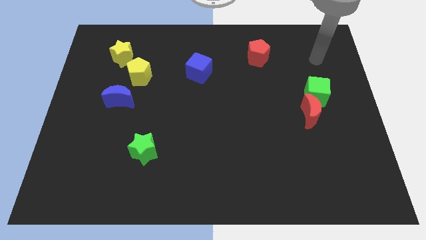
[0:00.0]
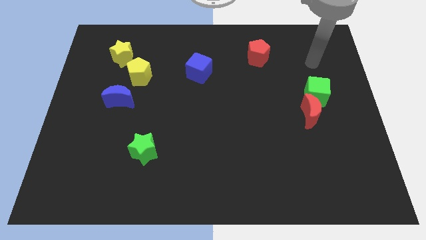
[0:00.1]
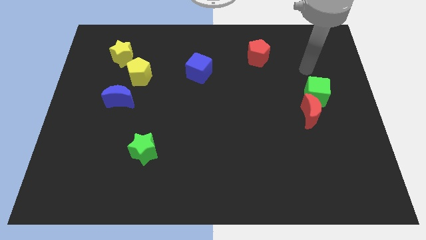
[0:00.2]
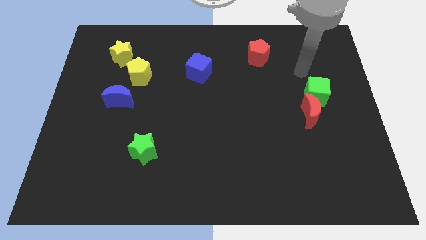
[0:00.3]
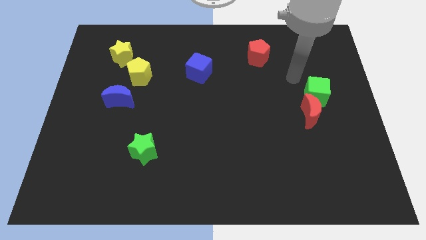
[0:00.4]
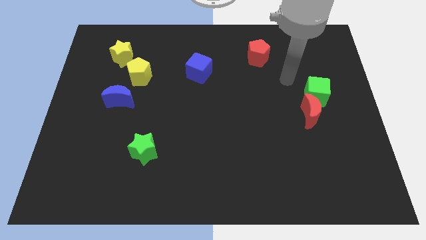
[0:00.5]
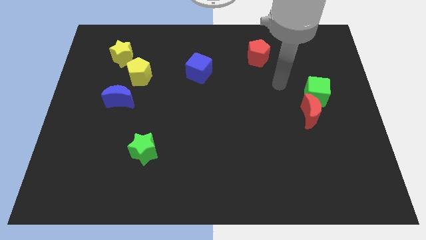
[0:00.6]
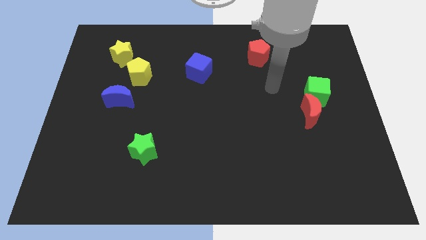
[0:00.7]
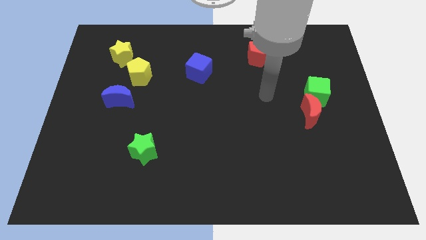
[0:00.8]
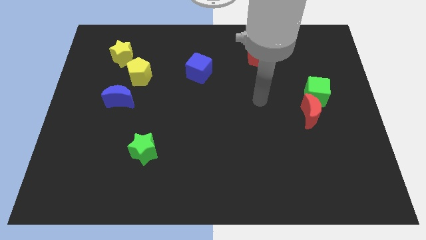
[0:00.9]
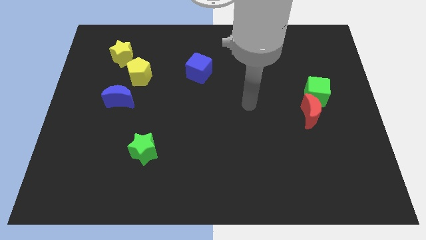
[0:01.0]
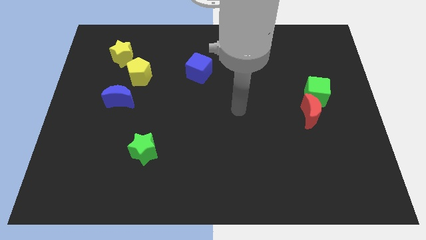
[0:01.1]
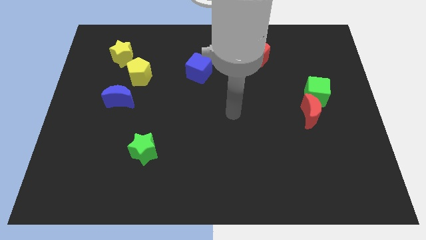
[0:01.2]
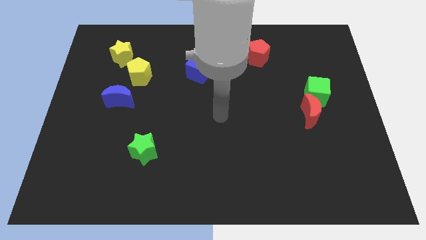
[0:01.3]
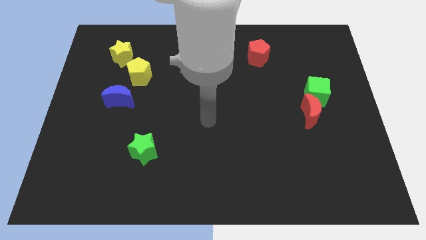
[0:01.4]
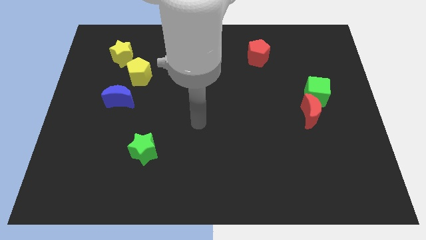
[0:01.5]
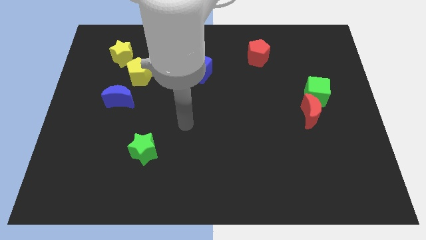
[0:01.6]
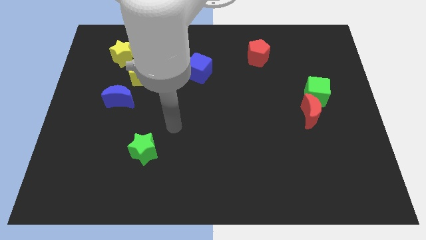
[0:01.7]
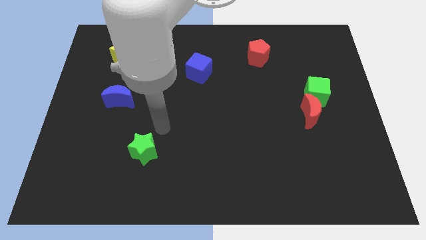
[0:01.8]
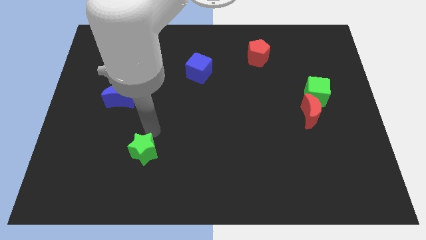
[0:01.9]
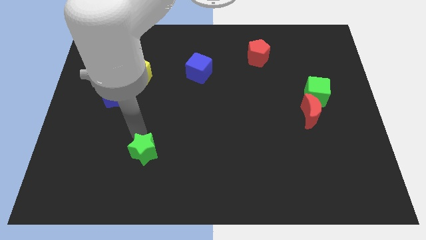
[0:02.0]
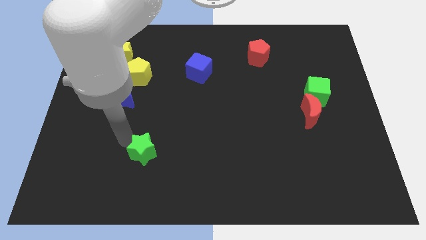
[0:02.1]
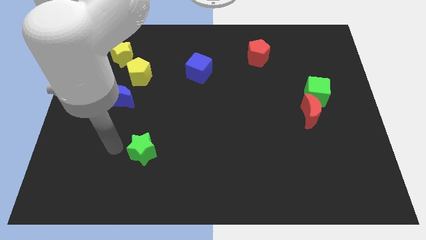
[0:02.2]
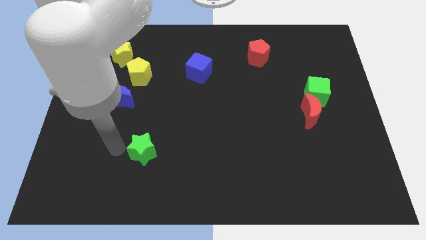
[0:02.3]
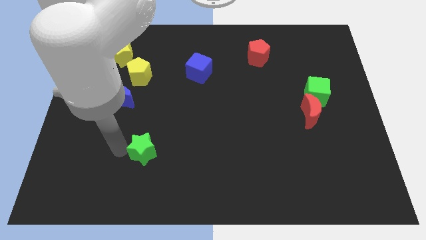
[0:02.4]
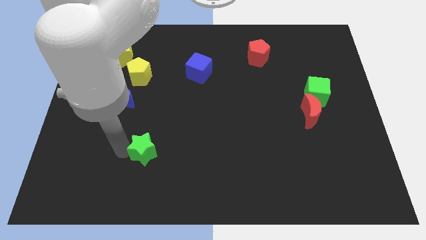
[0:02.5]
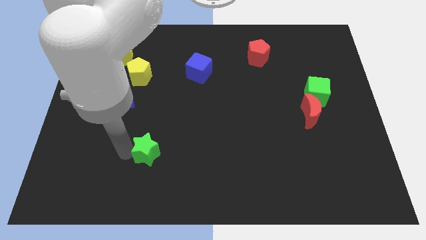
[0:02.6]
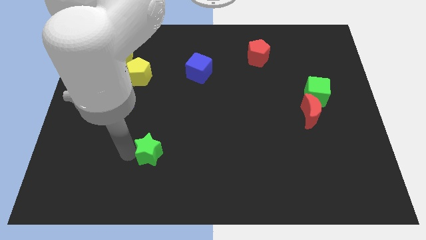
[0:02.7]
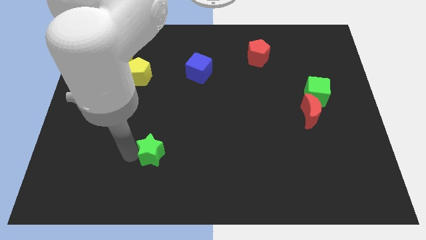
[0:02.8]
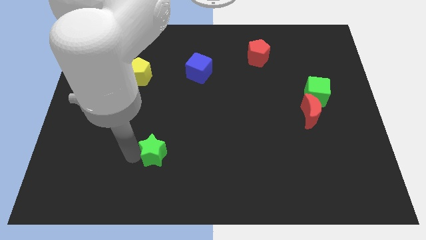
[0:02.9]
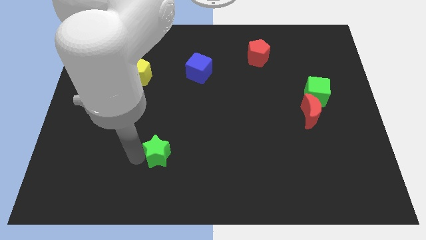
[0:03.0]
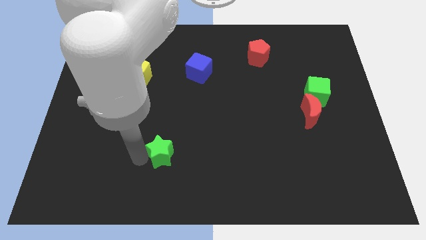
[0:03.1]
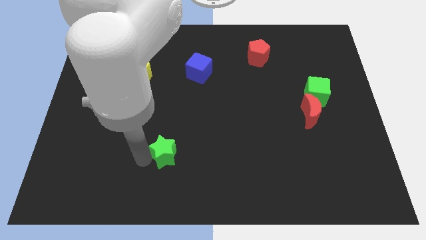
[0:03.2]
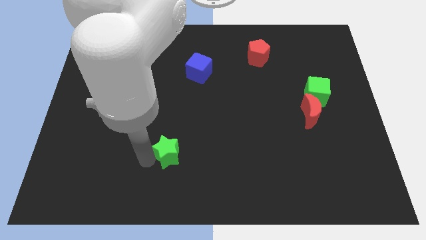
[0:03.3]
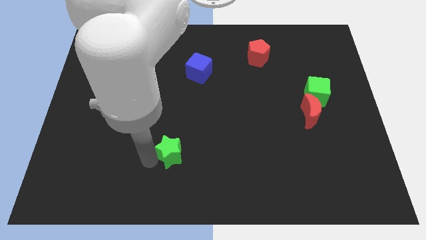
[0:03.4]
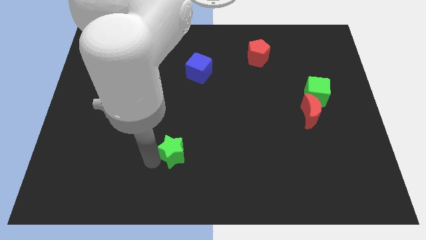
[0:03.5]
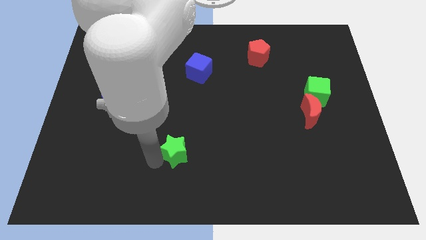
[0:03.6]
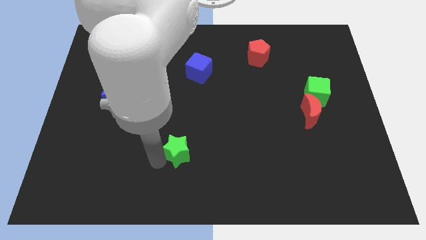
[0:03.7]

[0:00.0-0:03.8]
move the green star right a little

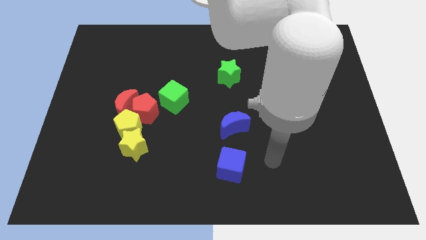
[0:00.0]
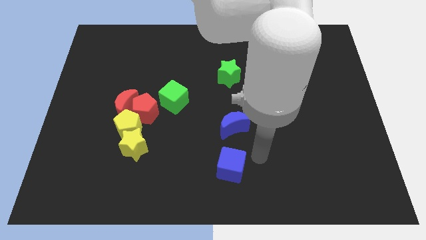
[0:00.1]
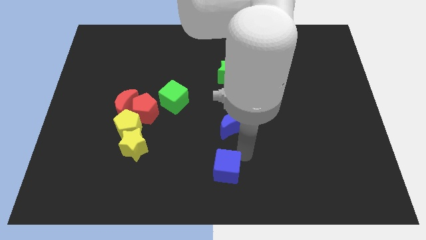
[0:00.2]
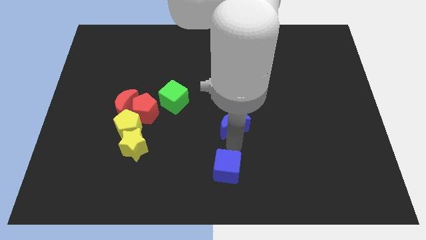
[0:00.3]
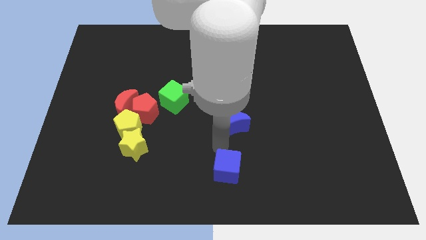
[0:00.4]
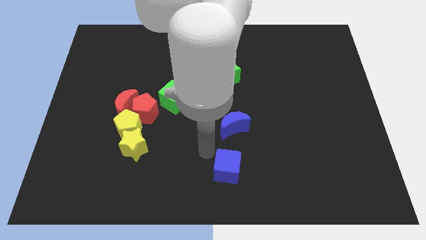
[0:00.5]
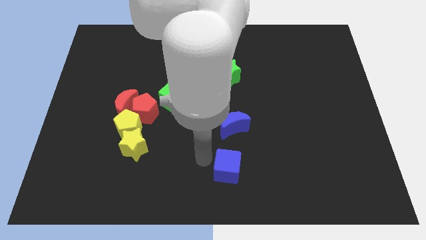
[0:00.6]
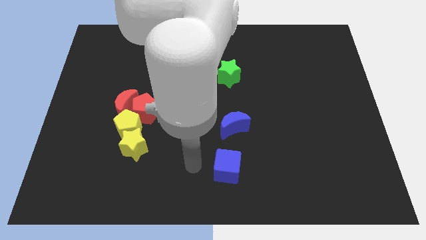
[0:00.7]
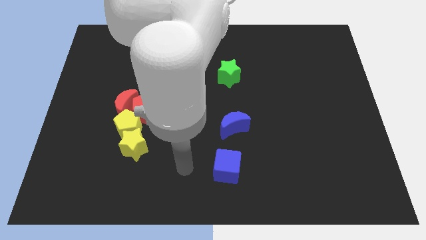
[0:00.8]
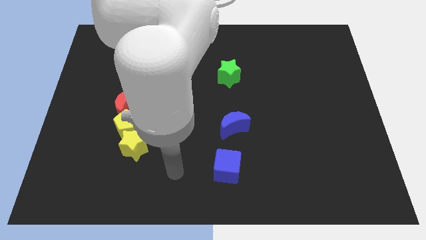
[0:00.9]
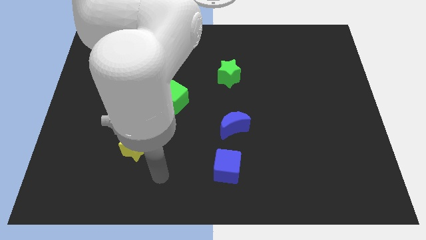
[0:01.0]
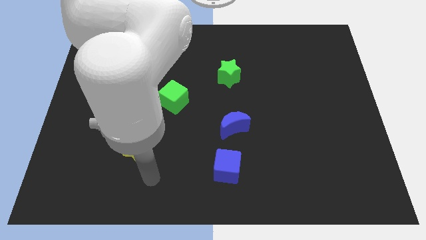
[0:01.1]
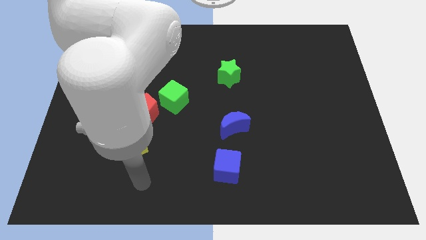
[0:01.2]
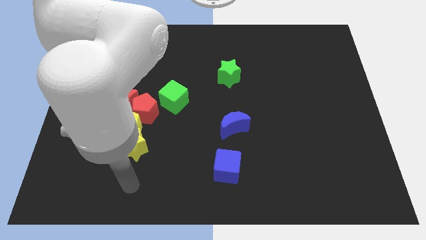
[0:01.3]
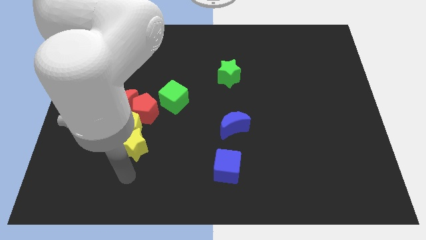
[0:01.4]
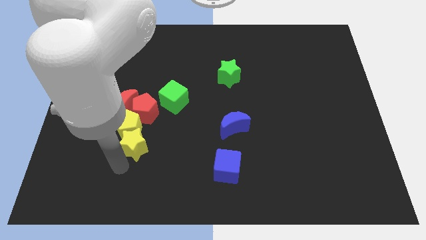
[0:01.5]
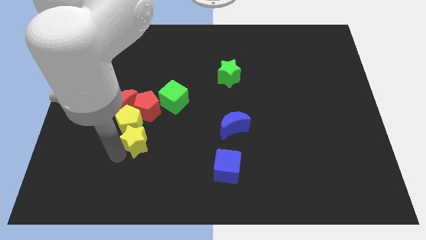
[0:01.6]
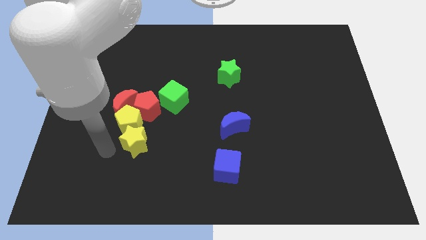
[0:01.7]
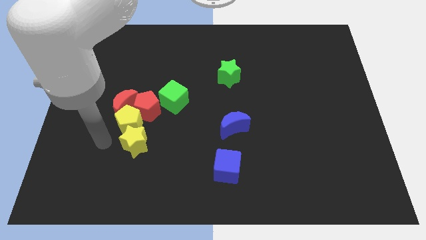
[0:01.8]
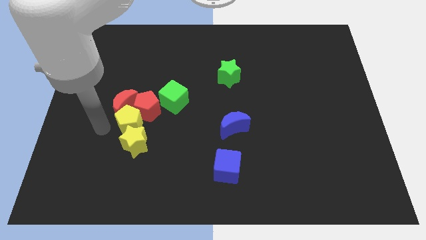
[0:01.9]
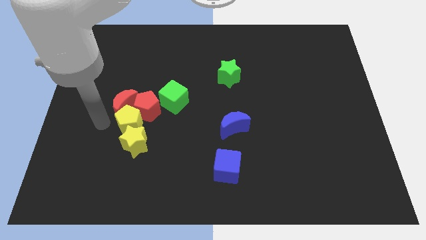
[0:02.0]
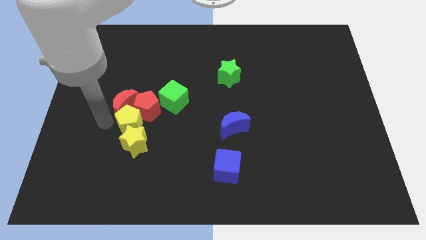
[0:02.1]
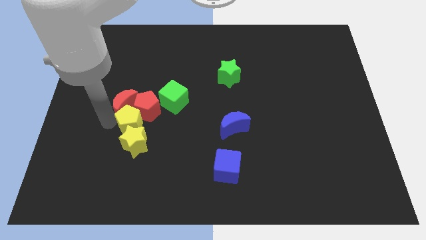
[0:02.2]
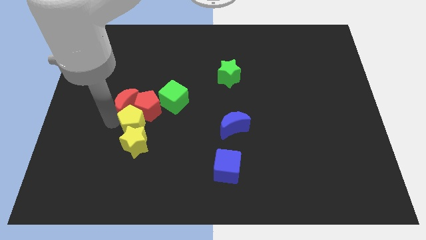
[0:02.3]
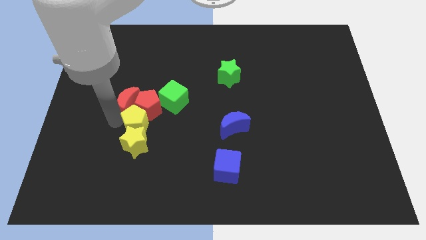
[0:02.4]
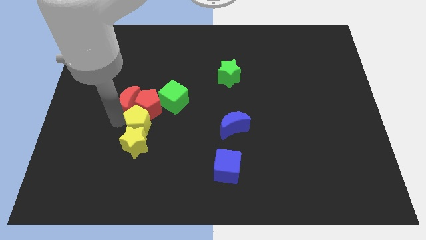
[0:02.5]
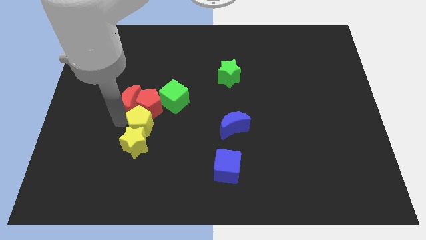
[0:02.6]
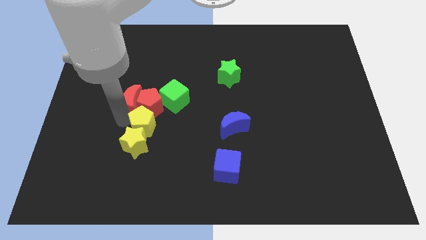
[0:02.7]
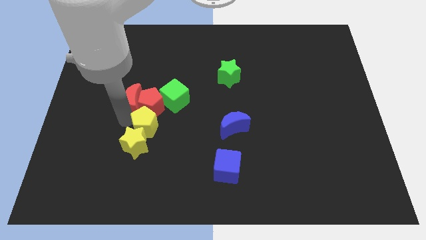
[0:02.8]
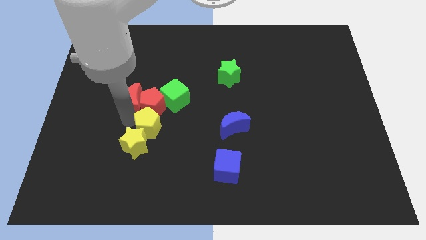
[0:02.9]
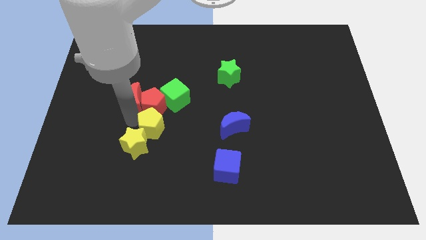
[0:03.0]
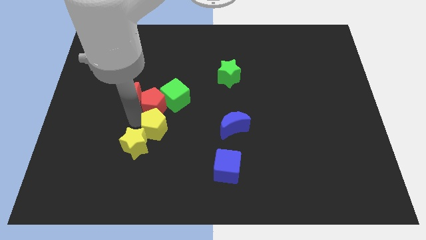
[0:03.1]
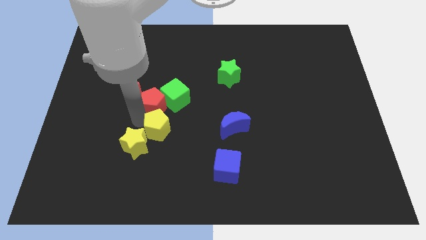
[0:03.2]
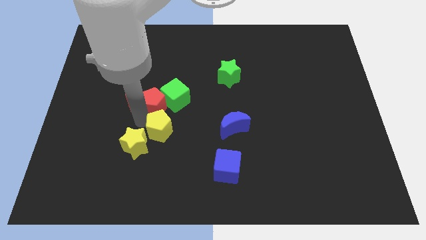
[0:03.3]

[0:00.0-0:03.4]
slide the yellow pentagon right a little bit

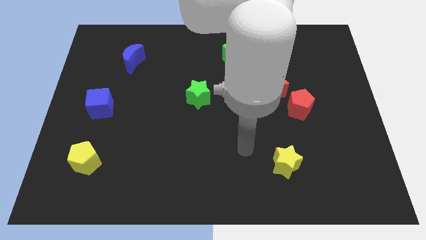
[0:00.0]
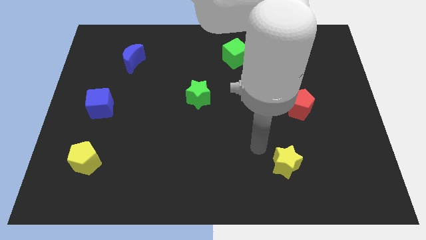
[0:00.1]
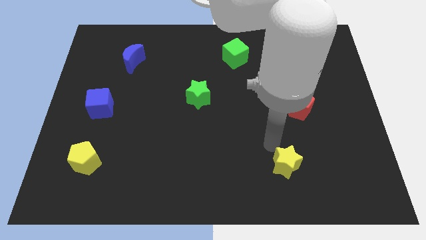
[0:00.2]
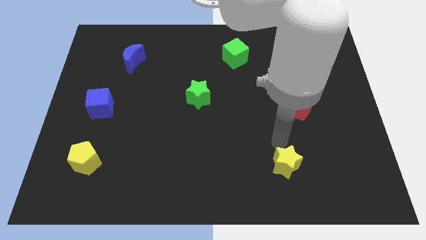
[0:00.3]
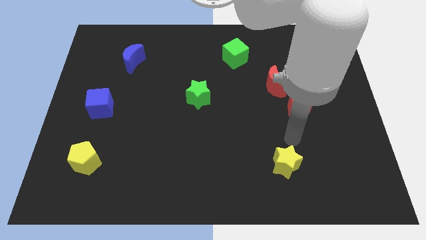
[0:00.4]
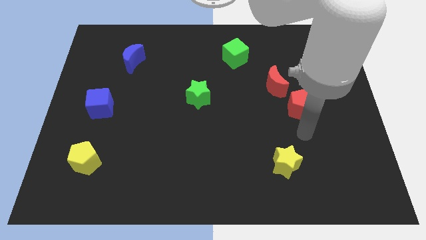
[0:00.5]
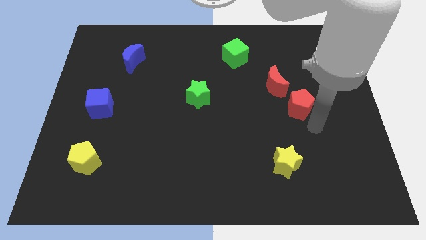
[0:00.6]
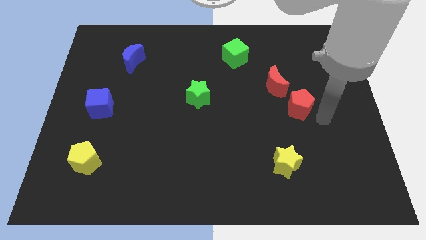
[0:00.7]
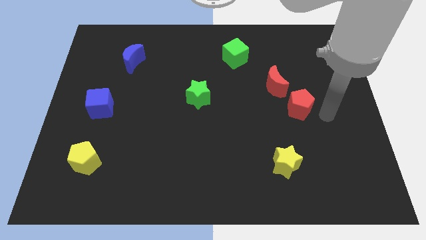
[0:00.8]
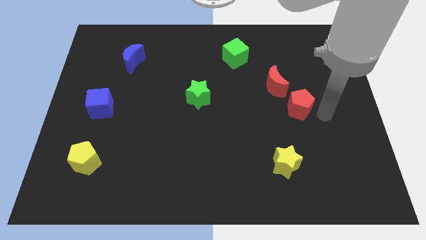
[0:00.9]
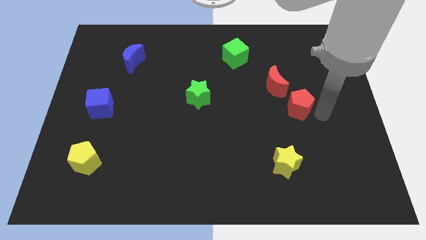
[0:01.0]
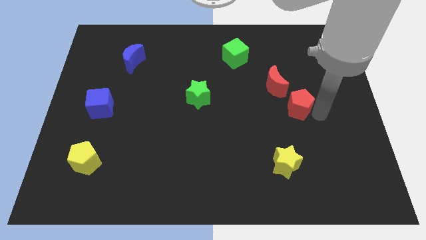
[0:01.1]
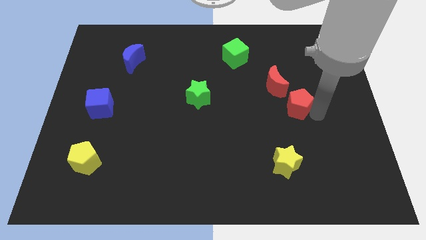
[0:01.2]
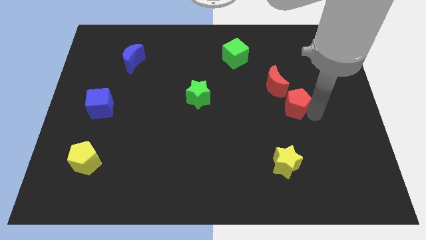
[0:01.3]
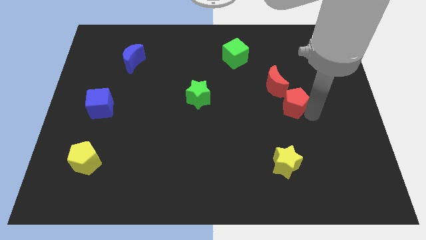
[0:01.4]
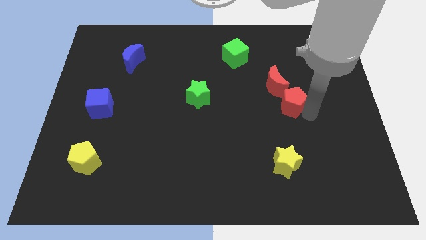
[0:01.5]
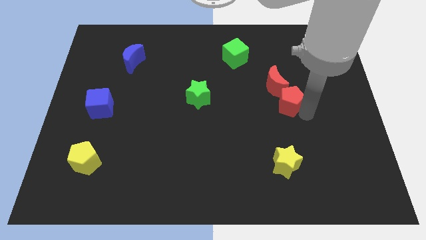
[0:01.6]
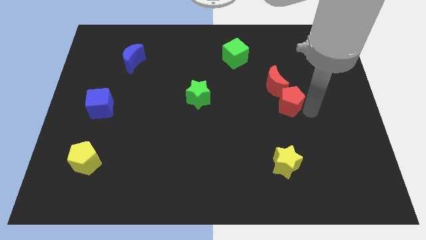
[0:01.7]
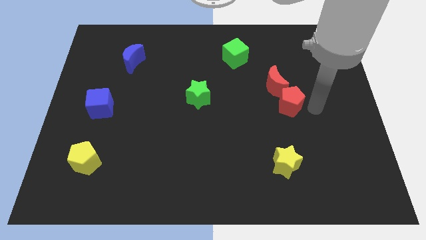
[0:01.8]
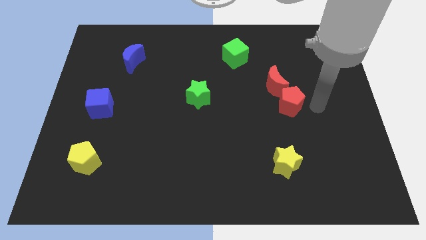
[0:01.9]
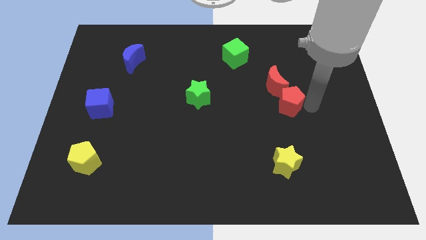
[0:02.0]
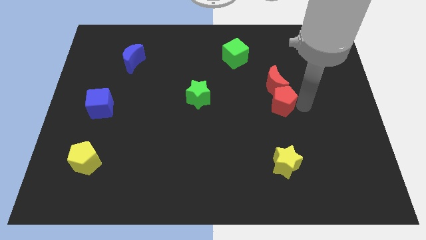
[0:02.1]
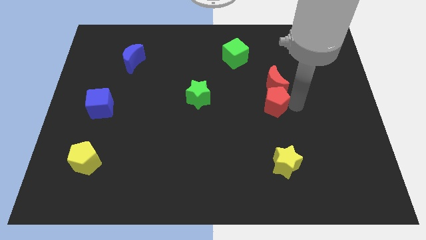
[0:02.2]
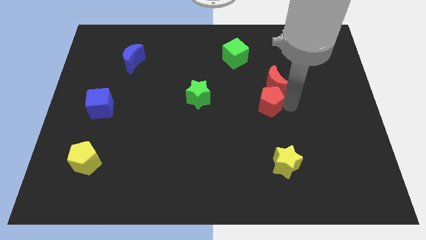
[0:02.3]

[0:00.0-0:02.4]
push the red pentagon somewhat to the left
